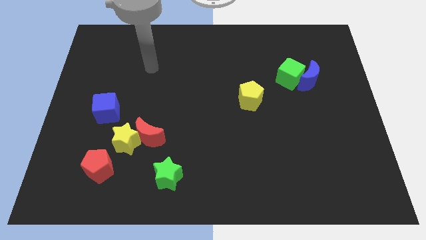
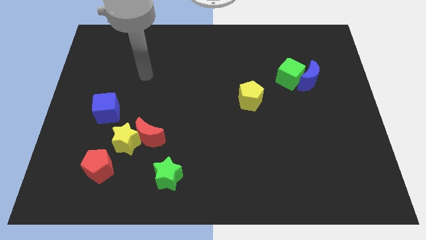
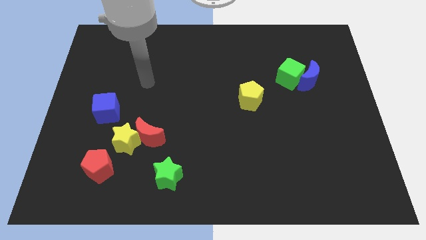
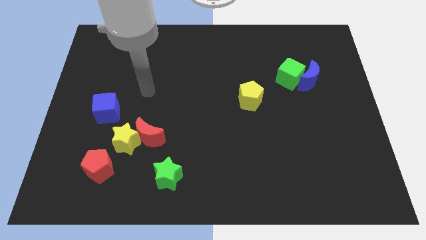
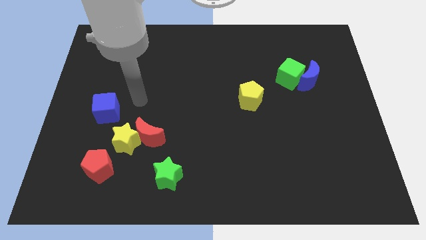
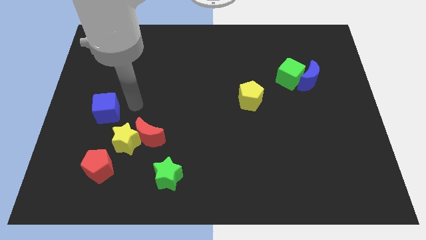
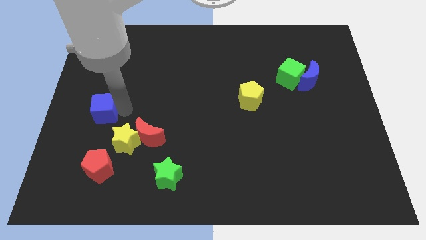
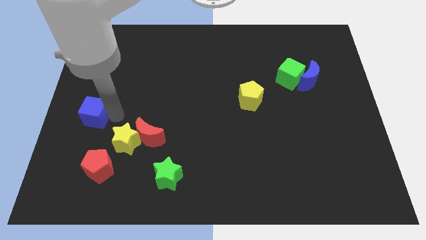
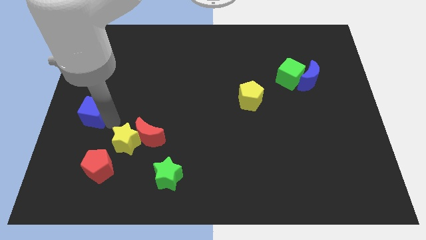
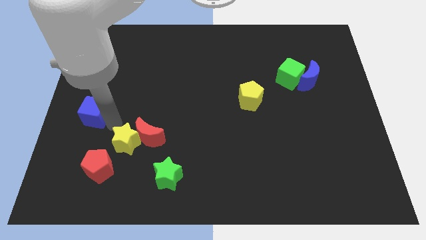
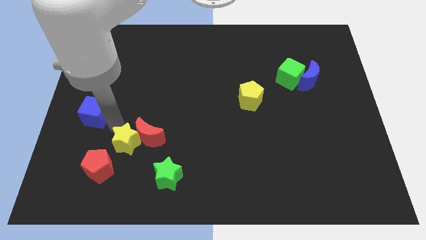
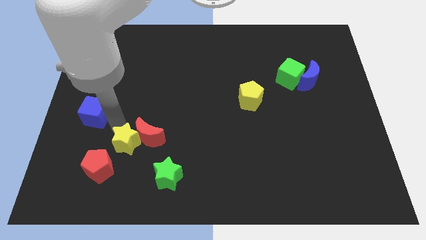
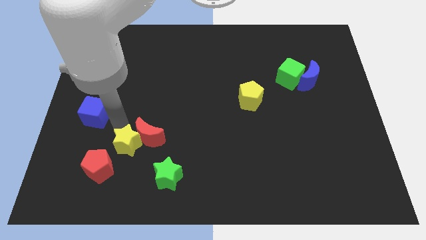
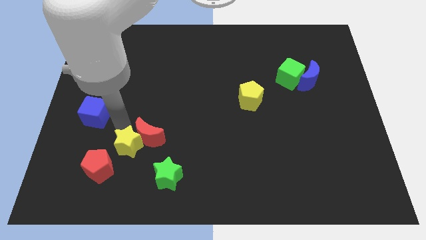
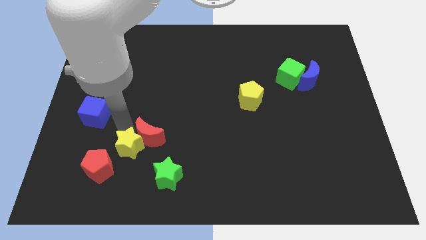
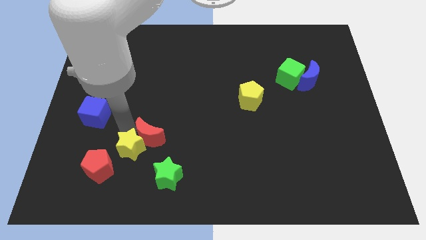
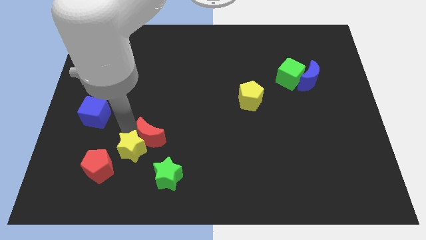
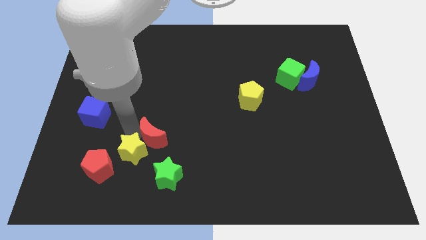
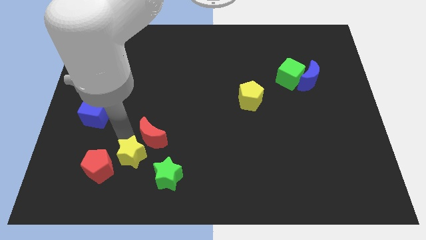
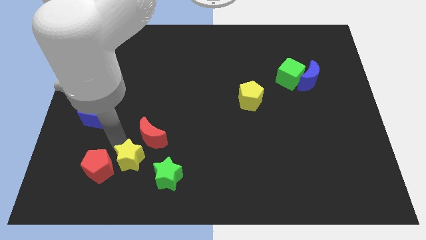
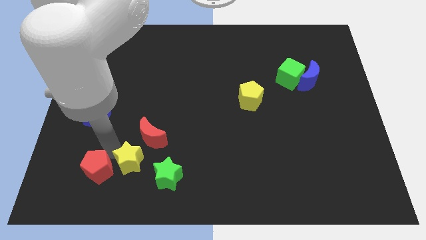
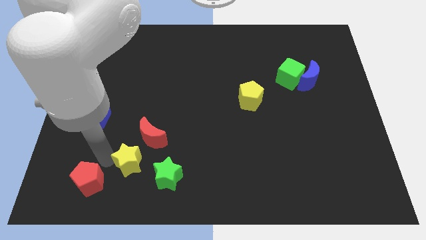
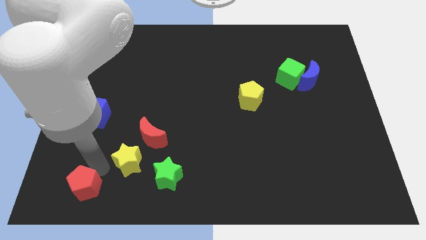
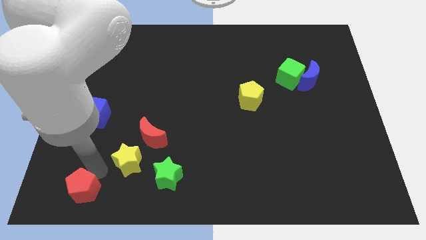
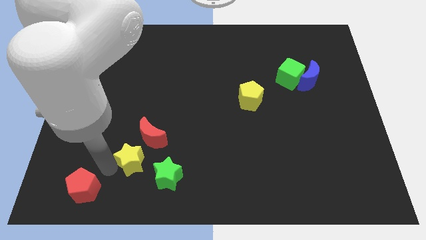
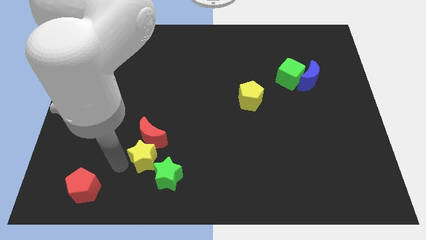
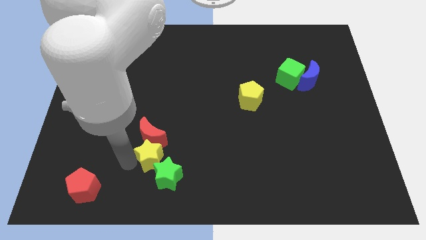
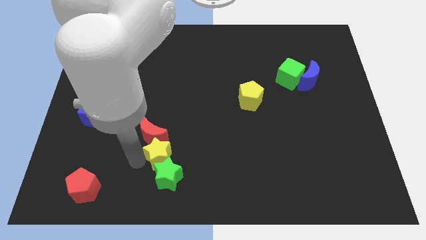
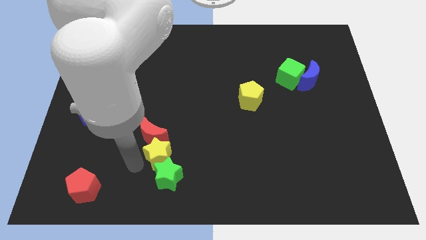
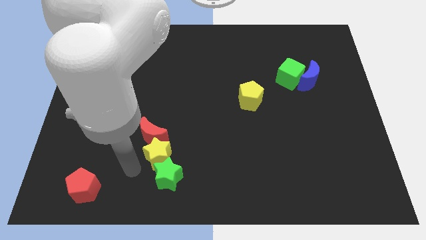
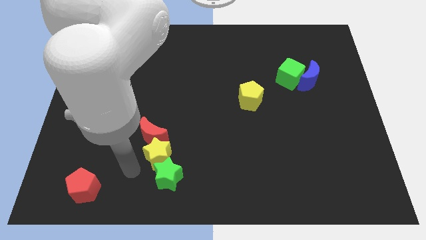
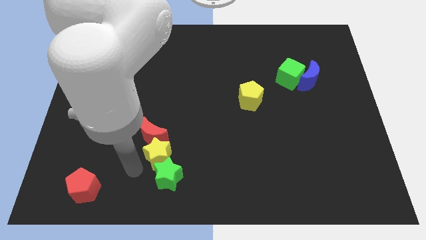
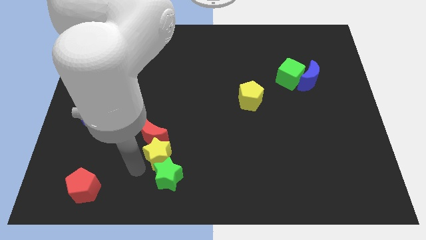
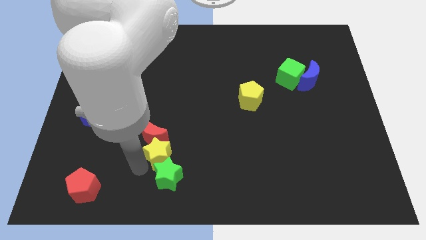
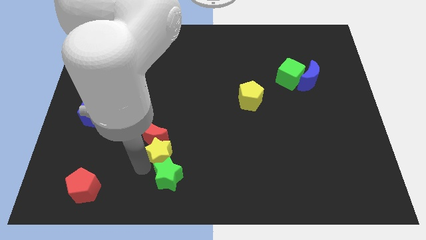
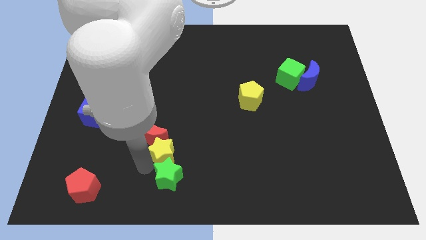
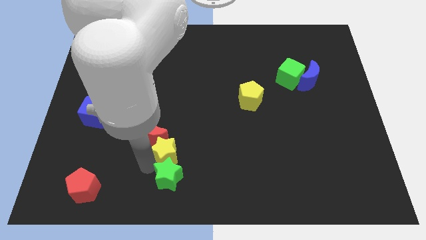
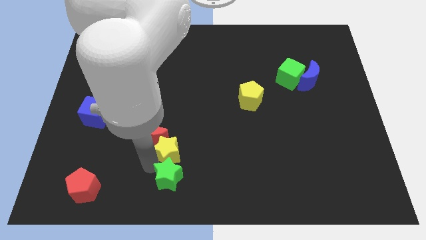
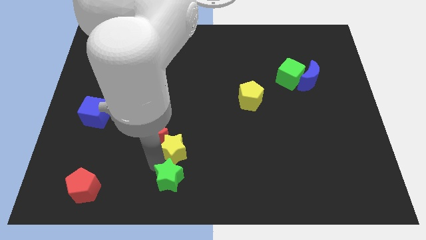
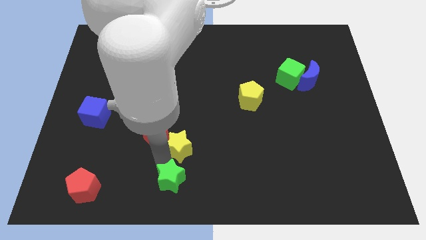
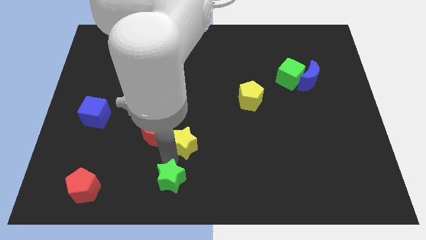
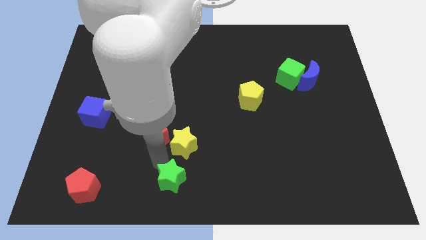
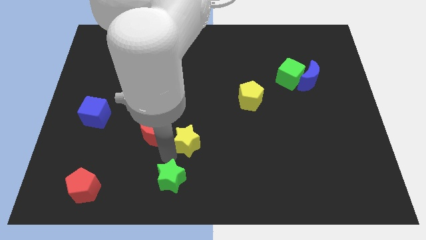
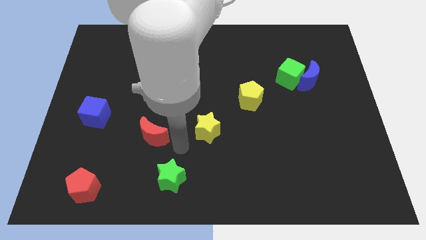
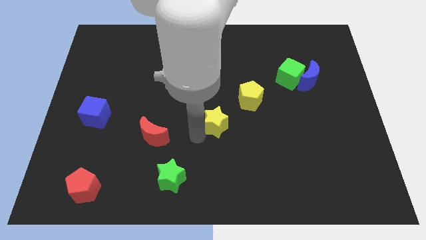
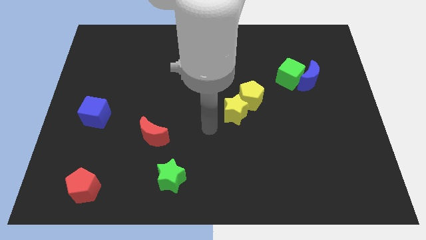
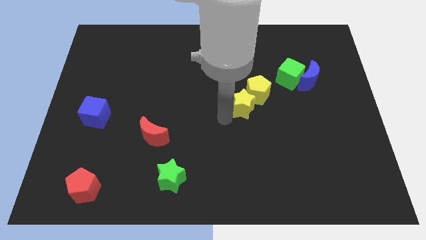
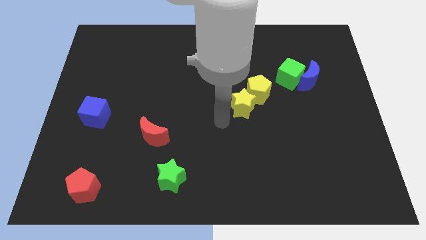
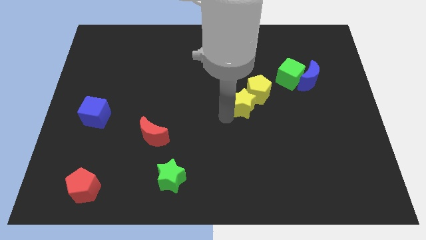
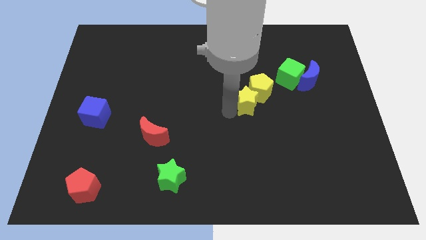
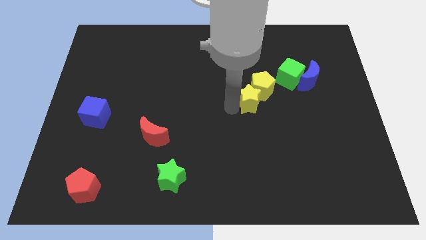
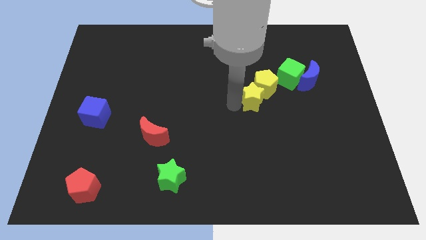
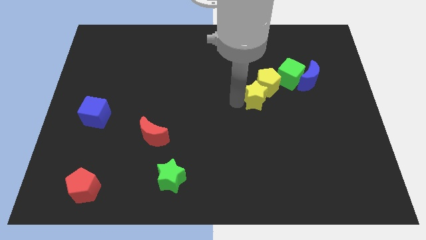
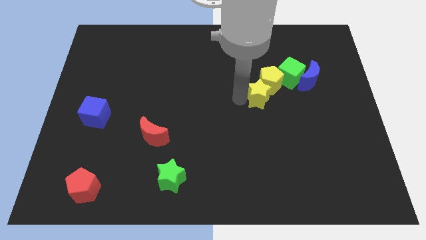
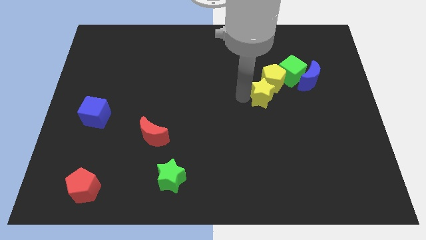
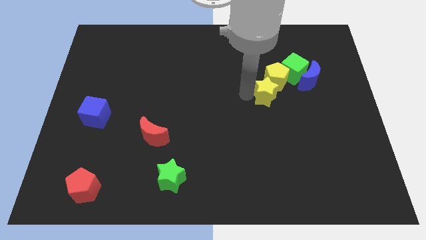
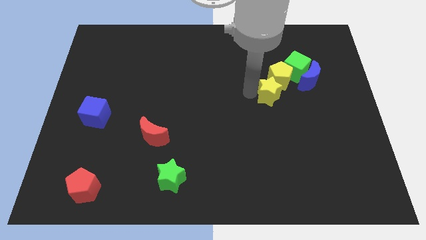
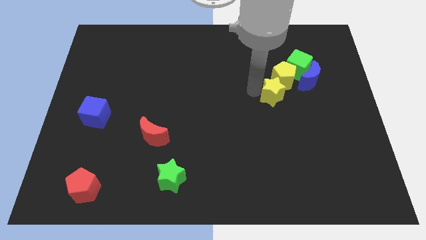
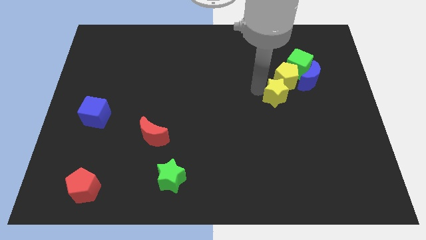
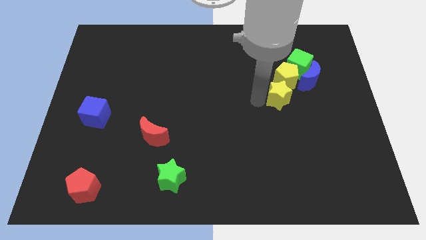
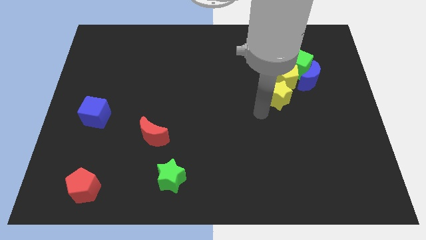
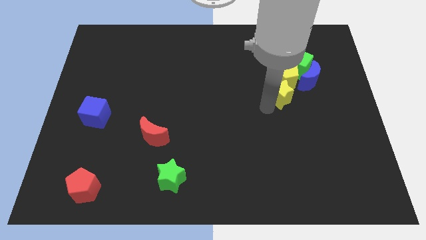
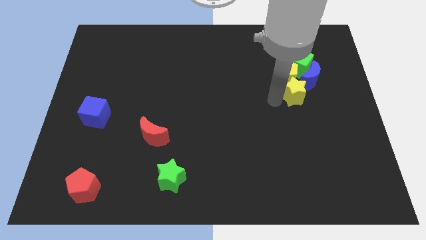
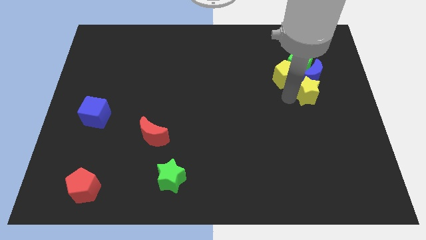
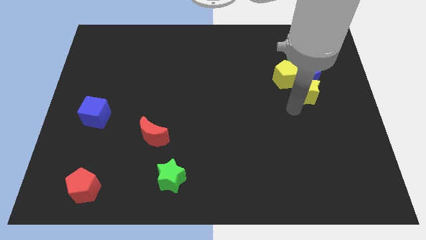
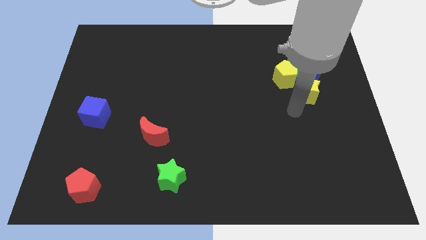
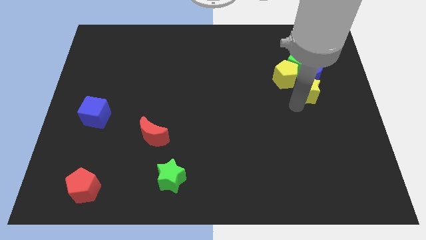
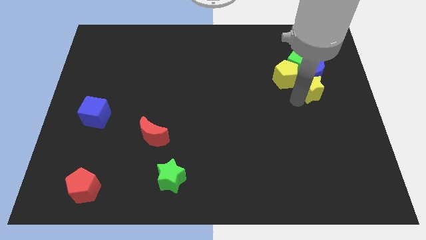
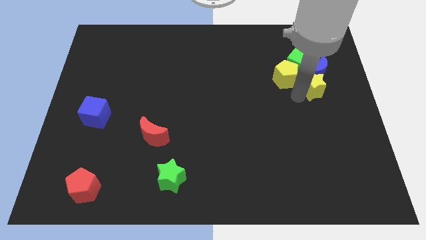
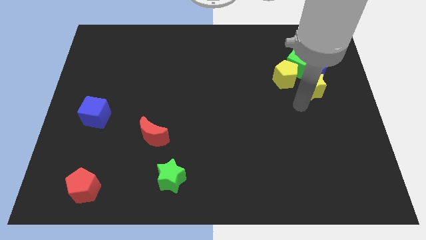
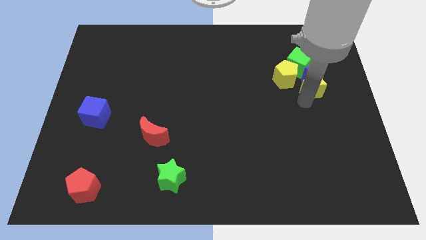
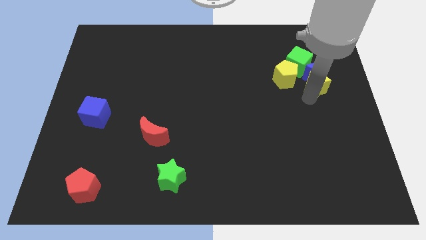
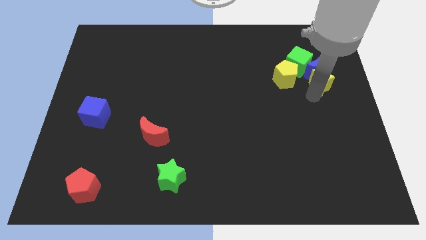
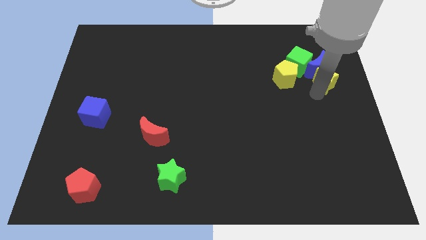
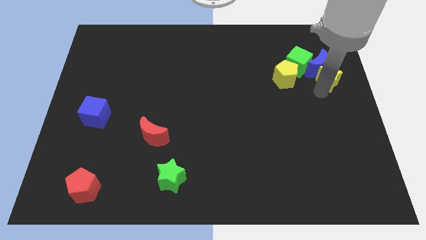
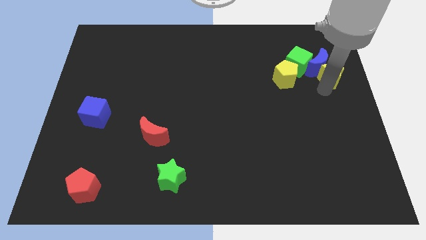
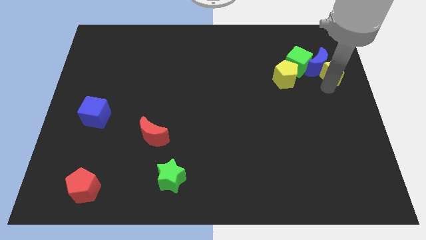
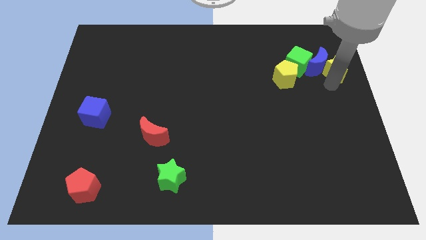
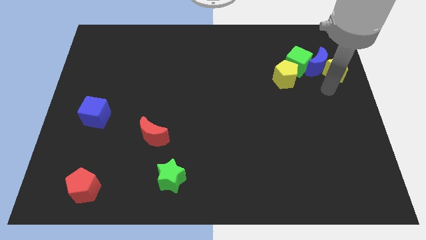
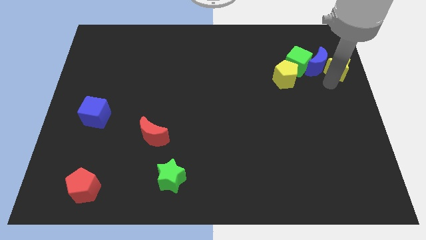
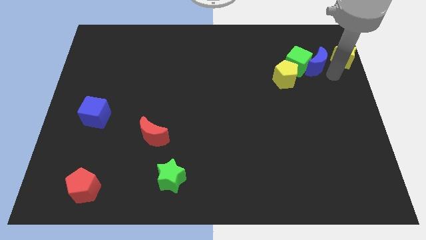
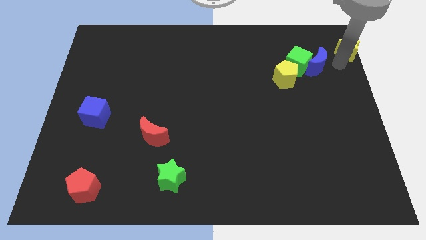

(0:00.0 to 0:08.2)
push the yellow star to the top right
